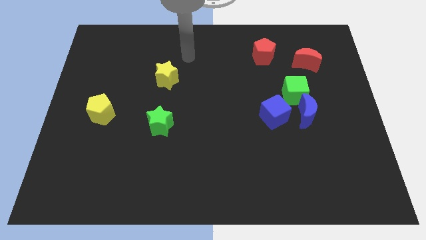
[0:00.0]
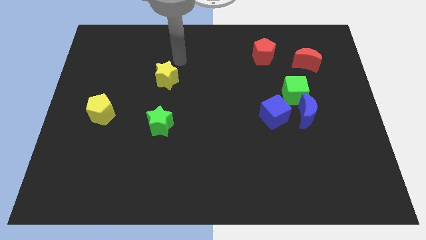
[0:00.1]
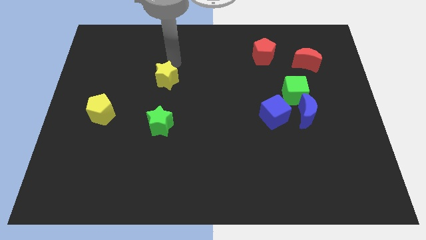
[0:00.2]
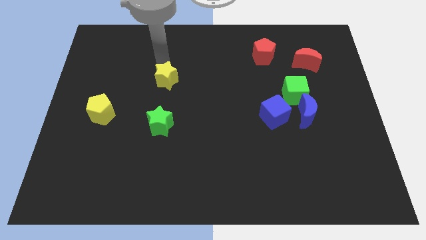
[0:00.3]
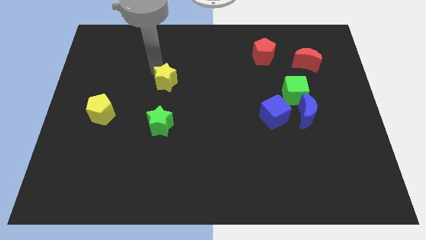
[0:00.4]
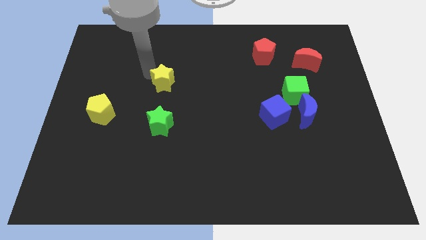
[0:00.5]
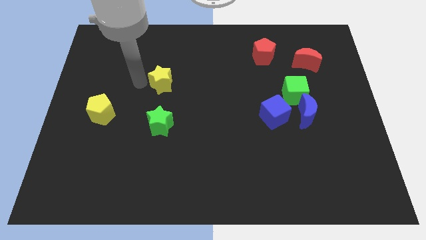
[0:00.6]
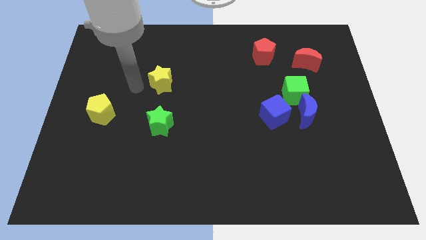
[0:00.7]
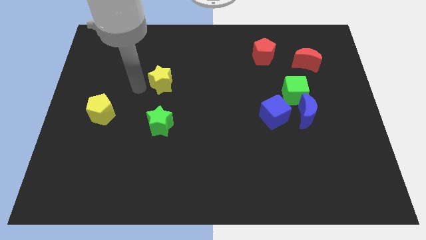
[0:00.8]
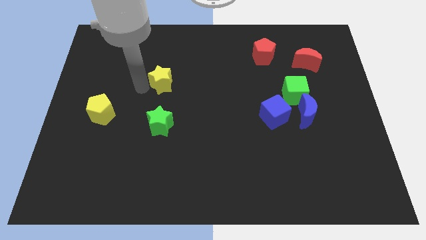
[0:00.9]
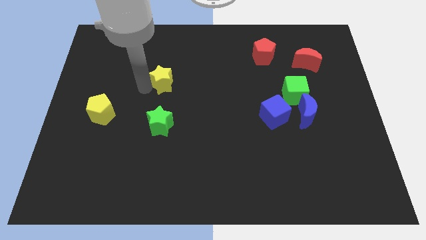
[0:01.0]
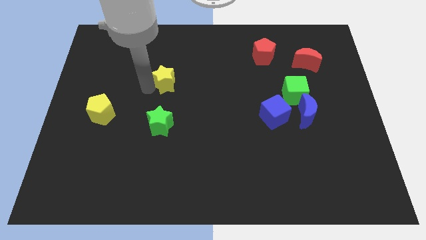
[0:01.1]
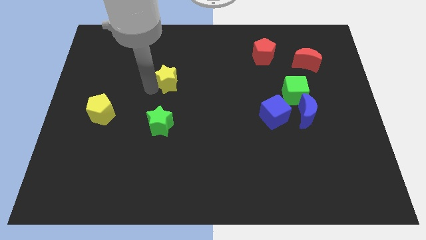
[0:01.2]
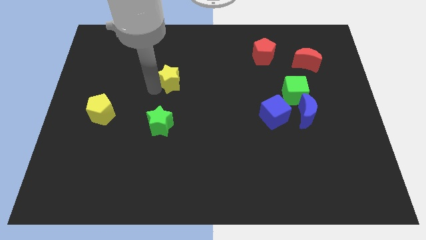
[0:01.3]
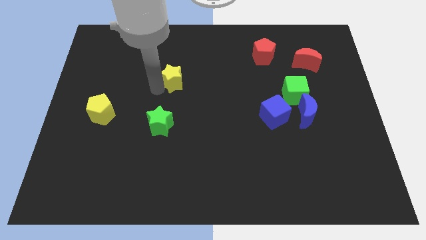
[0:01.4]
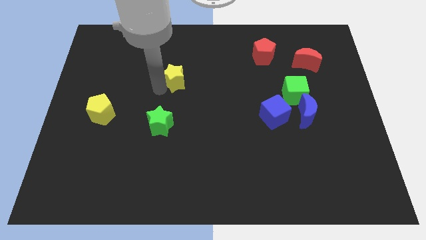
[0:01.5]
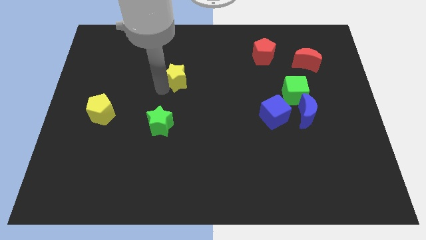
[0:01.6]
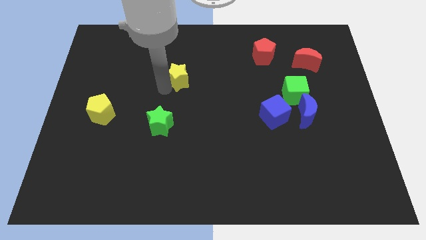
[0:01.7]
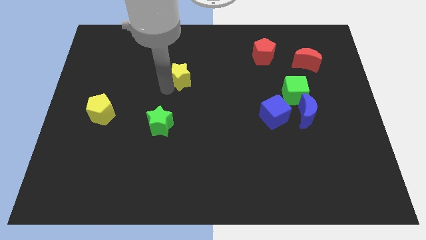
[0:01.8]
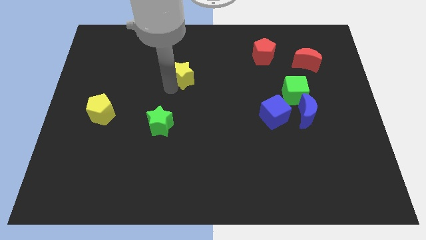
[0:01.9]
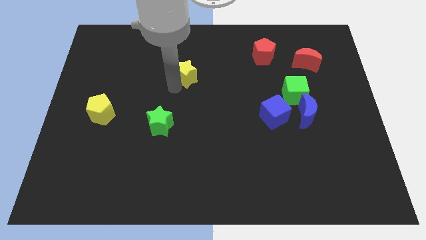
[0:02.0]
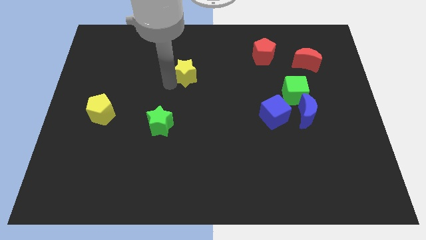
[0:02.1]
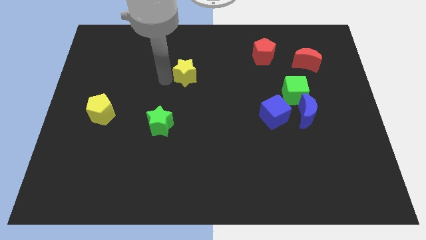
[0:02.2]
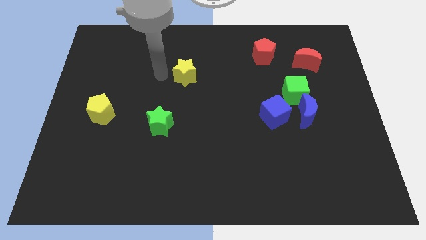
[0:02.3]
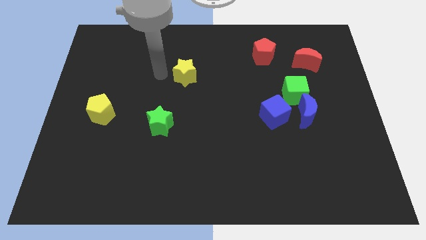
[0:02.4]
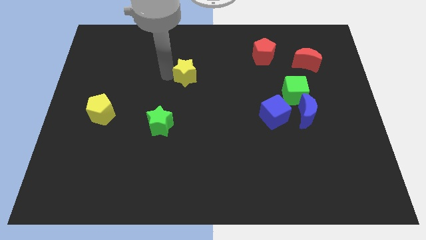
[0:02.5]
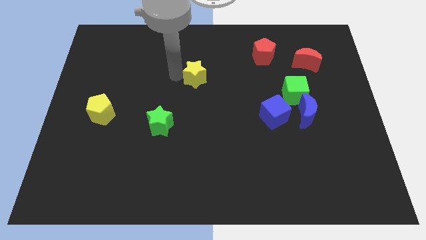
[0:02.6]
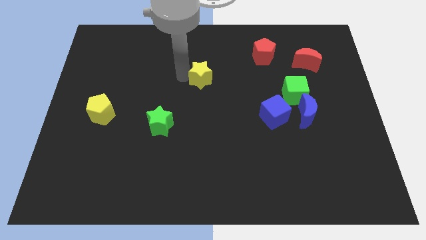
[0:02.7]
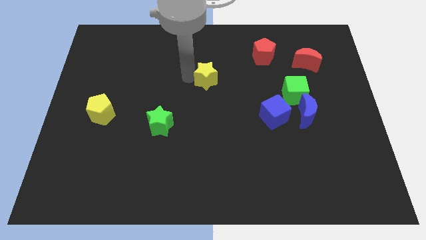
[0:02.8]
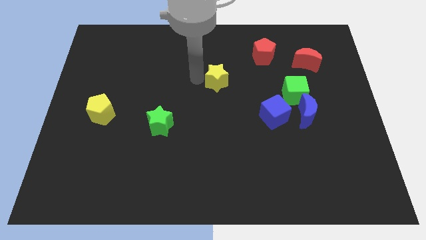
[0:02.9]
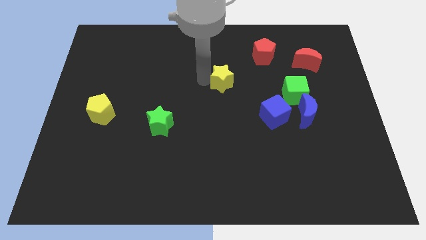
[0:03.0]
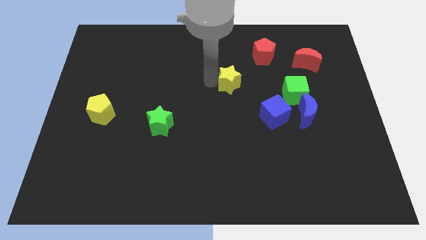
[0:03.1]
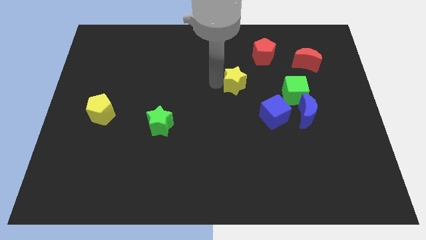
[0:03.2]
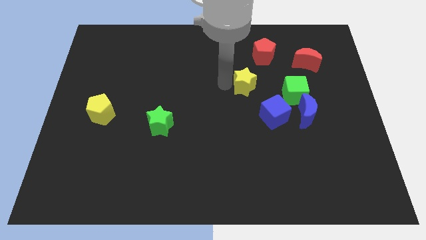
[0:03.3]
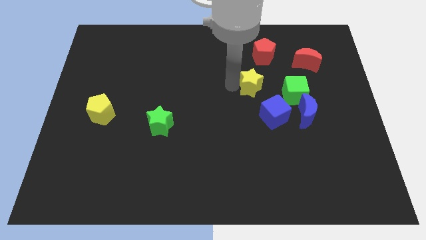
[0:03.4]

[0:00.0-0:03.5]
slide the yellow star right

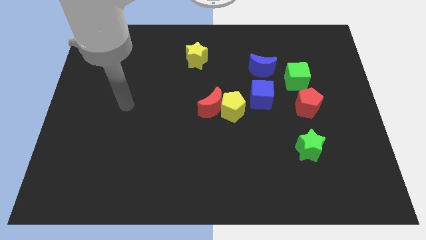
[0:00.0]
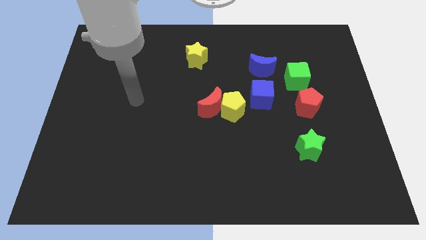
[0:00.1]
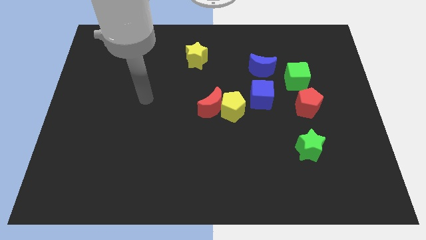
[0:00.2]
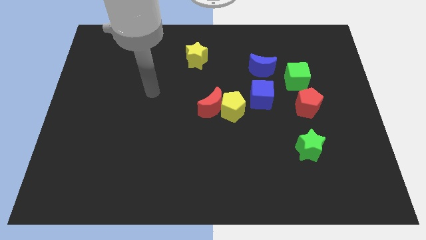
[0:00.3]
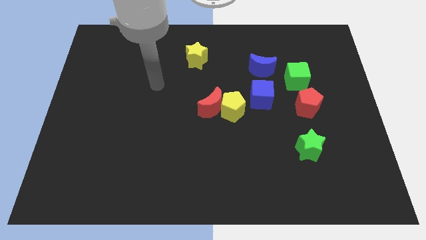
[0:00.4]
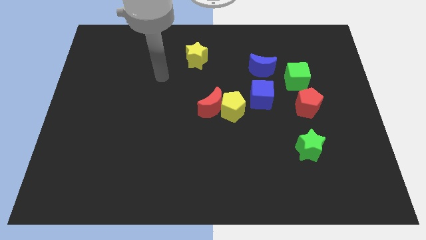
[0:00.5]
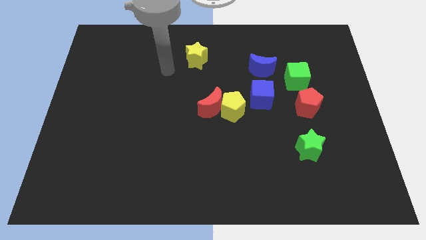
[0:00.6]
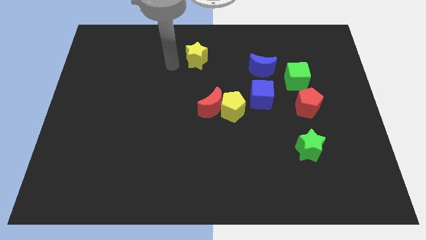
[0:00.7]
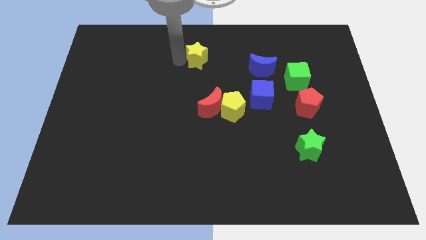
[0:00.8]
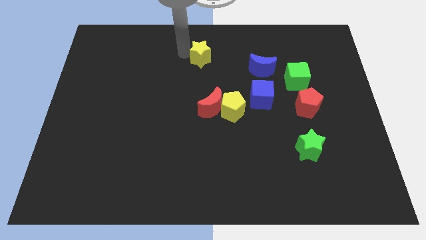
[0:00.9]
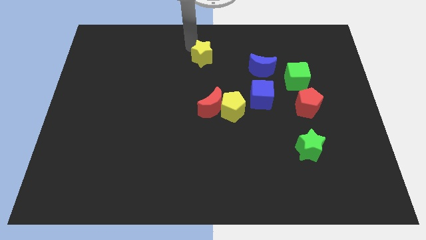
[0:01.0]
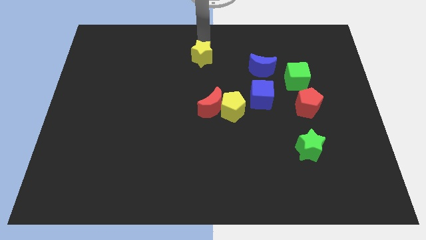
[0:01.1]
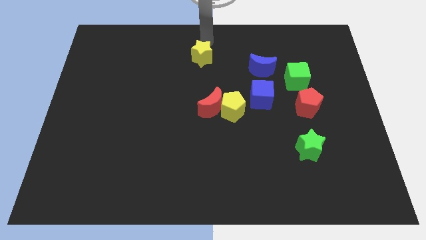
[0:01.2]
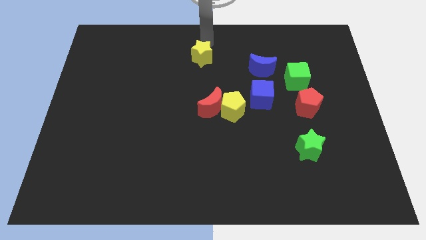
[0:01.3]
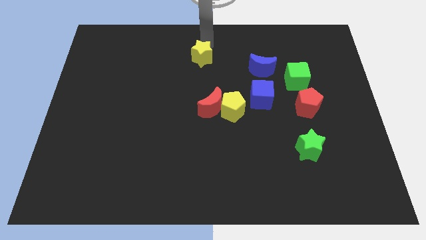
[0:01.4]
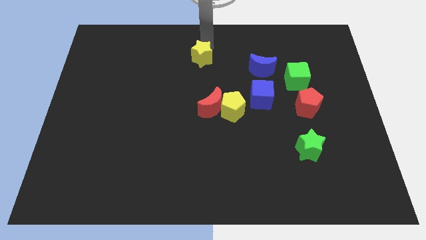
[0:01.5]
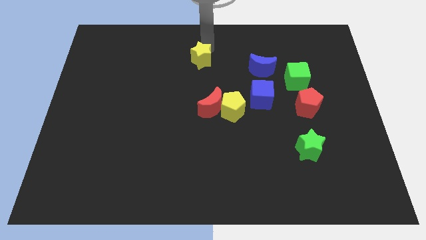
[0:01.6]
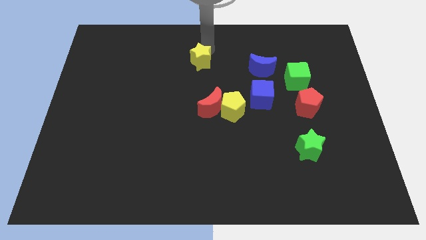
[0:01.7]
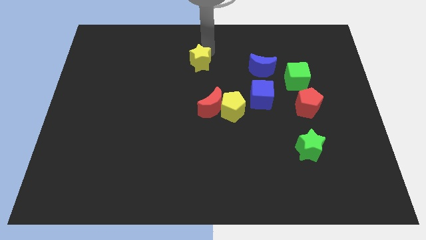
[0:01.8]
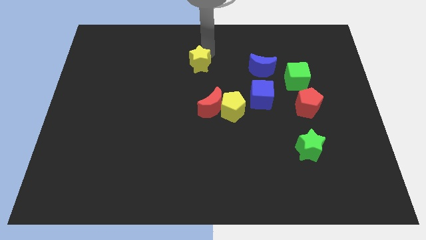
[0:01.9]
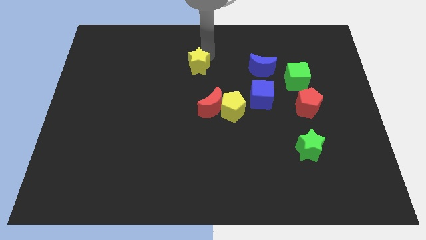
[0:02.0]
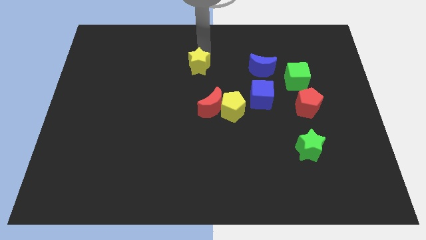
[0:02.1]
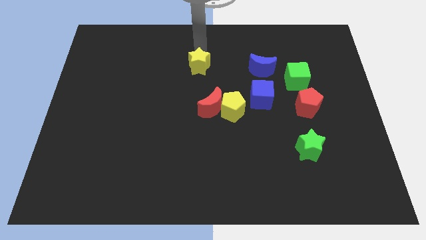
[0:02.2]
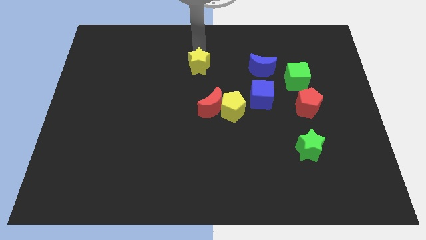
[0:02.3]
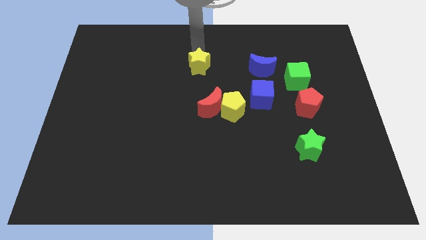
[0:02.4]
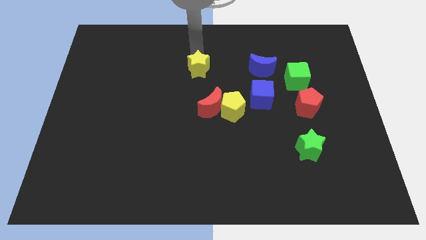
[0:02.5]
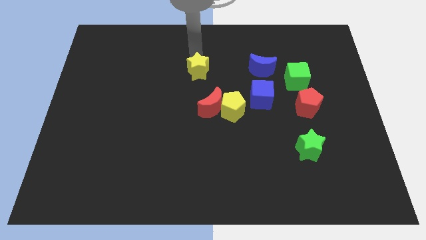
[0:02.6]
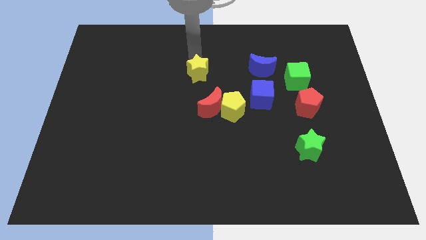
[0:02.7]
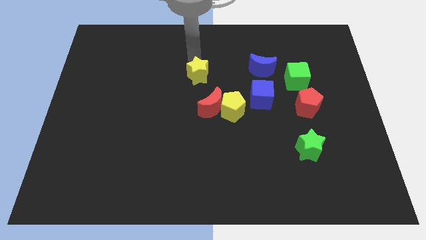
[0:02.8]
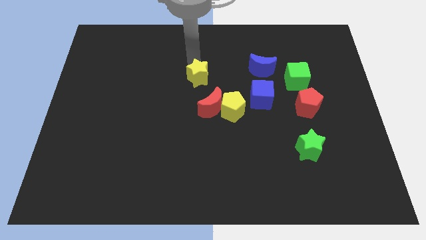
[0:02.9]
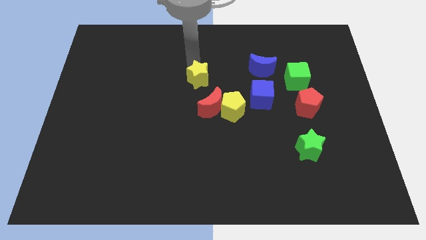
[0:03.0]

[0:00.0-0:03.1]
slide the yellow star downwards a little bit

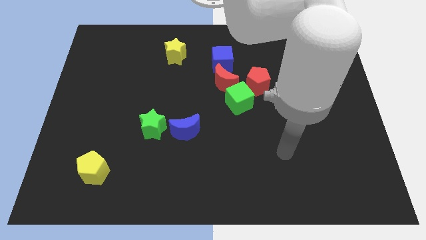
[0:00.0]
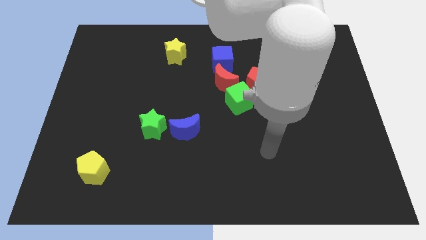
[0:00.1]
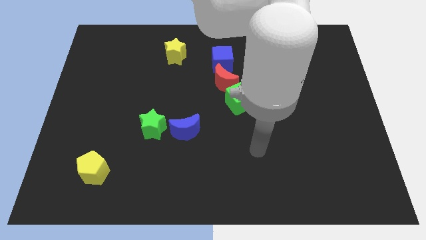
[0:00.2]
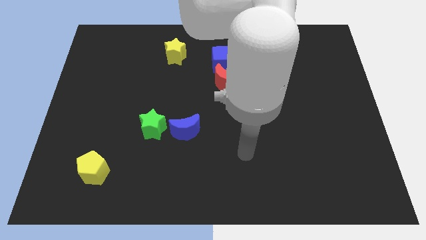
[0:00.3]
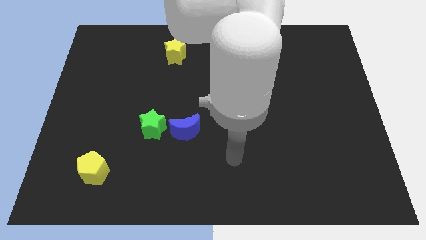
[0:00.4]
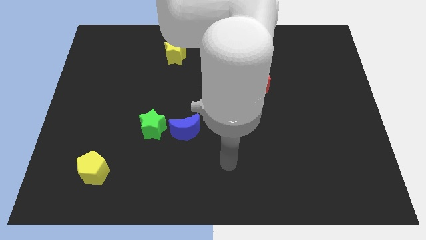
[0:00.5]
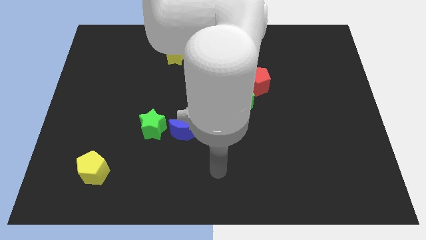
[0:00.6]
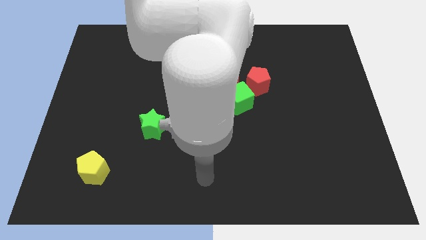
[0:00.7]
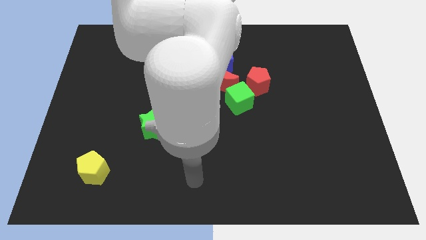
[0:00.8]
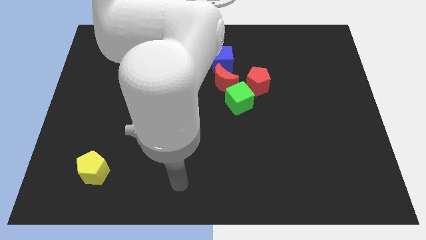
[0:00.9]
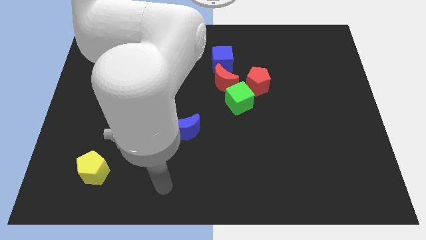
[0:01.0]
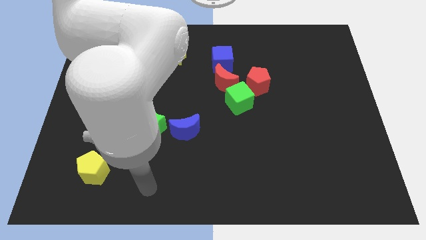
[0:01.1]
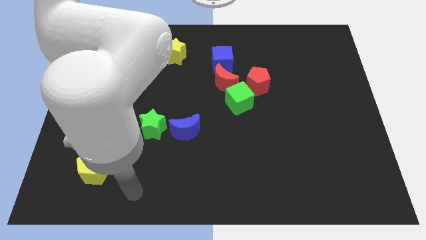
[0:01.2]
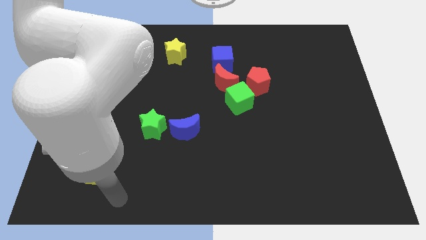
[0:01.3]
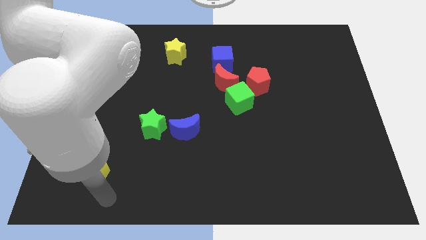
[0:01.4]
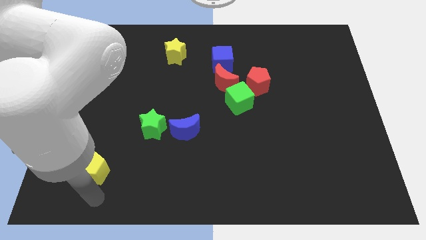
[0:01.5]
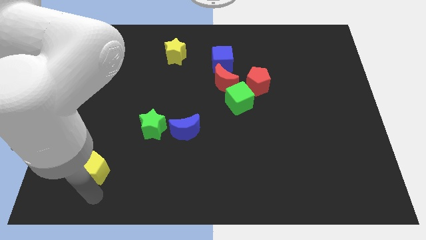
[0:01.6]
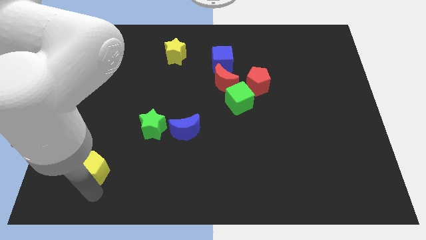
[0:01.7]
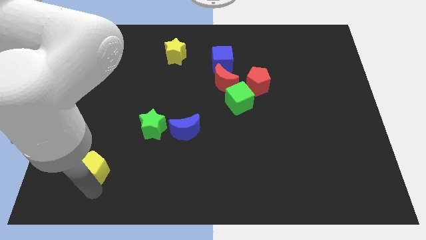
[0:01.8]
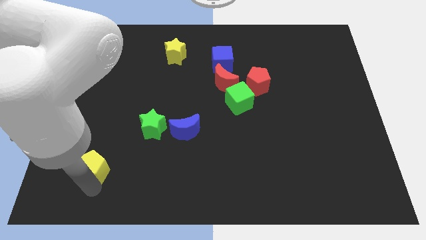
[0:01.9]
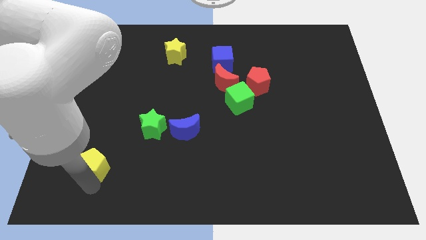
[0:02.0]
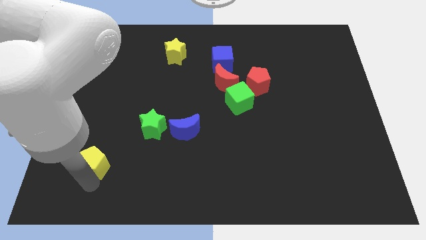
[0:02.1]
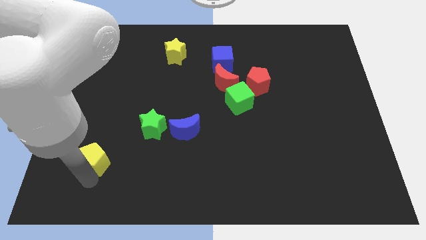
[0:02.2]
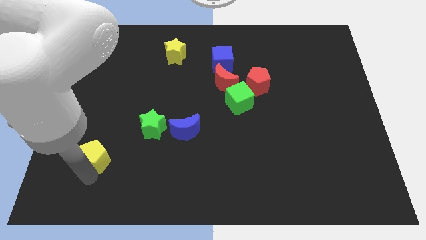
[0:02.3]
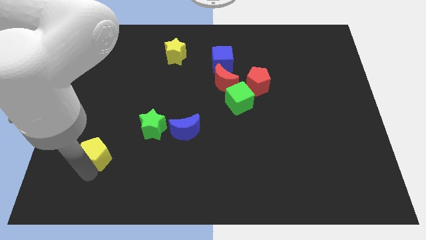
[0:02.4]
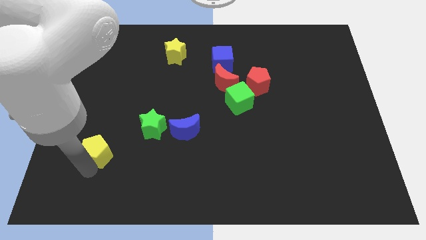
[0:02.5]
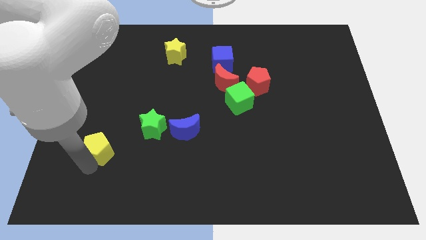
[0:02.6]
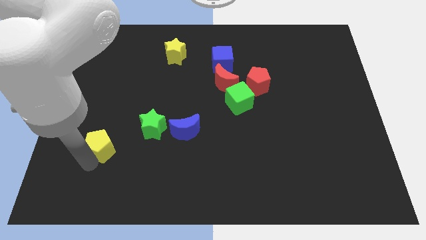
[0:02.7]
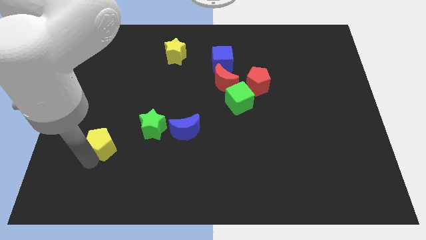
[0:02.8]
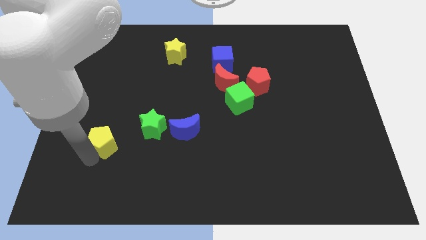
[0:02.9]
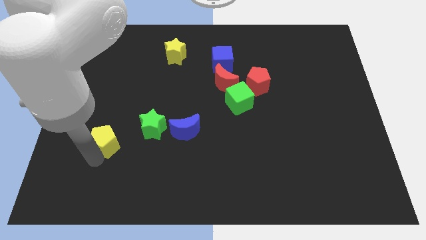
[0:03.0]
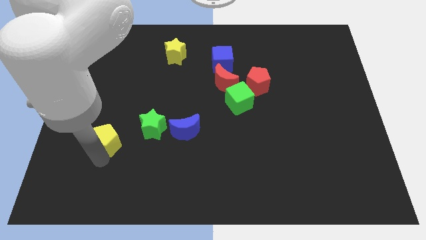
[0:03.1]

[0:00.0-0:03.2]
slide the yellow pentagon a little bit upwards
